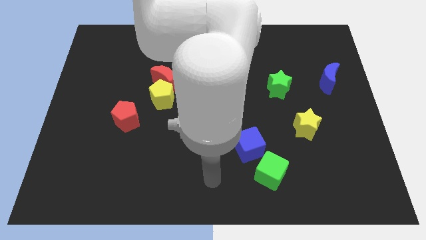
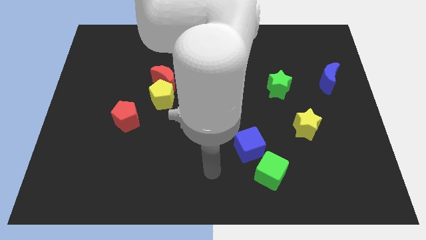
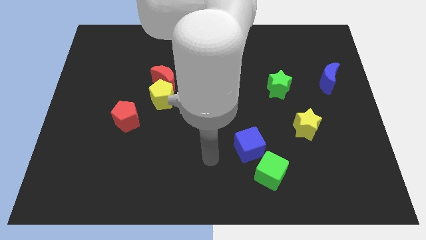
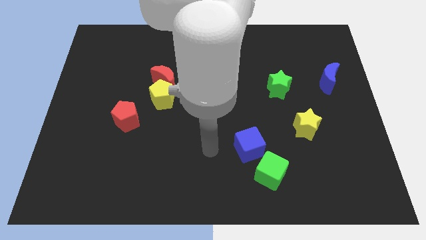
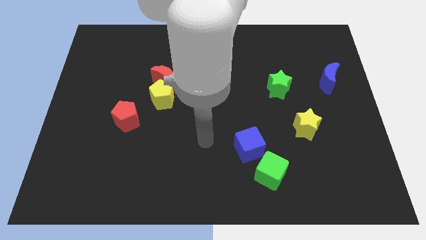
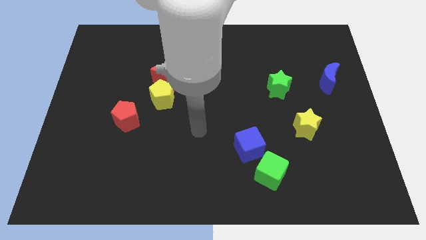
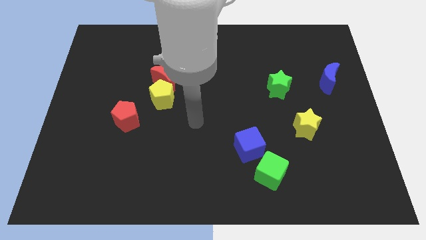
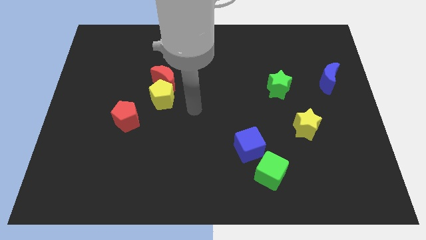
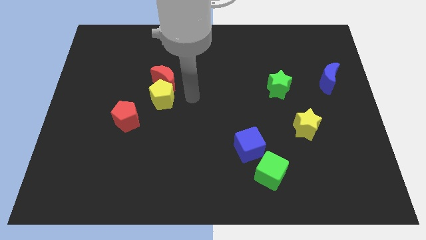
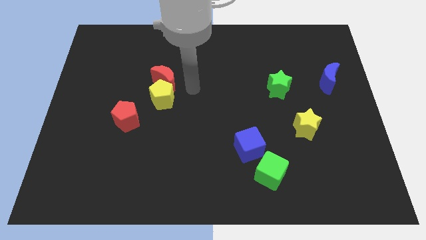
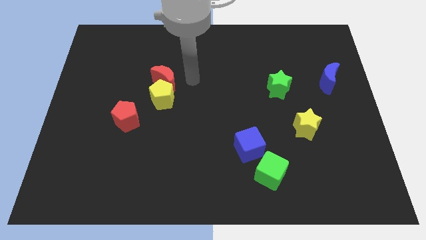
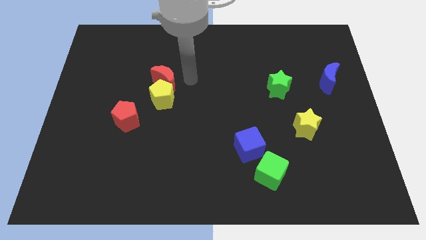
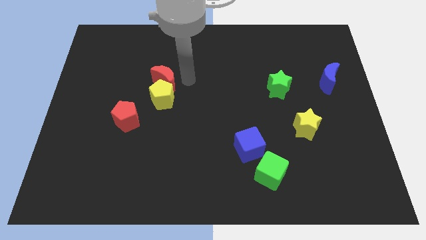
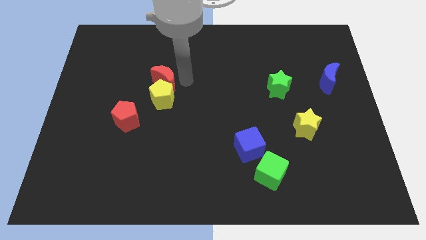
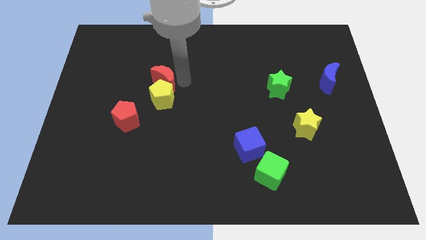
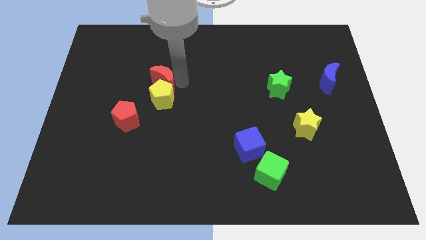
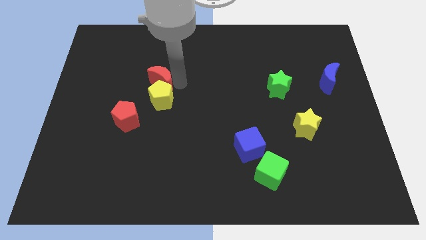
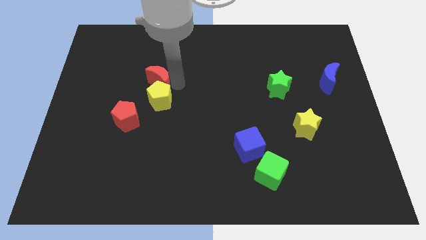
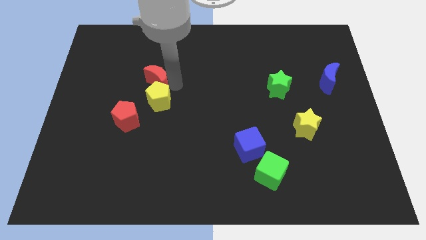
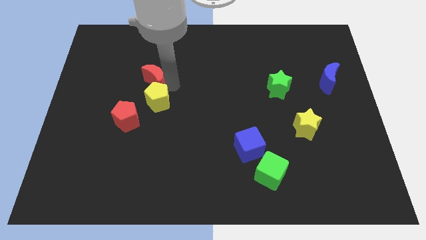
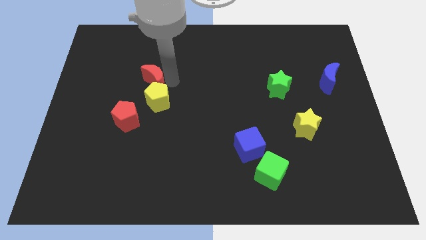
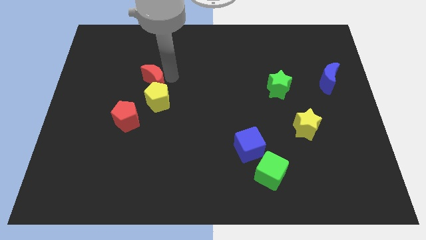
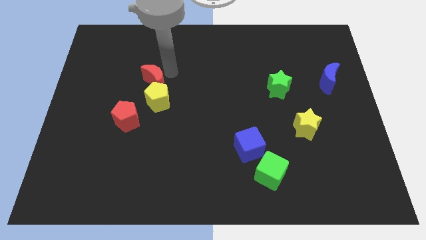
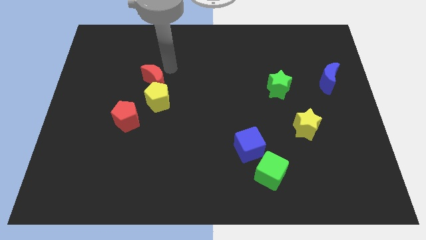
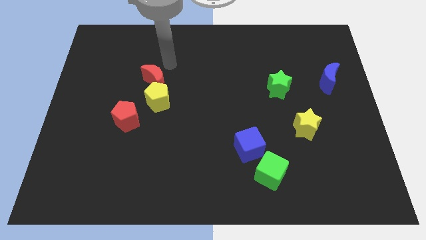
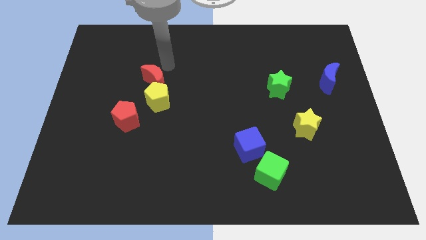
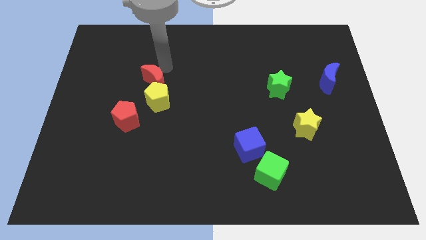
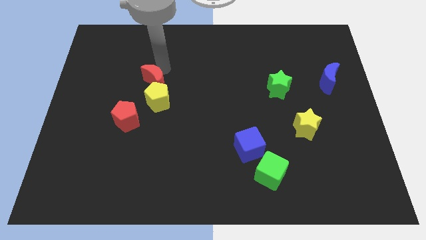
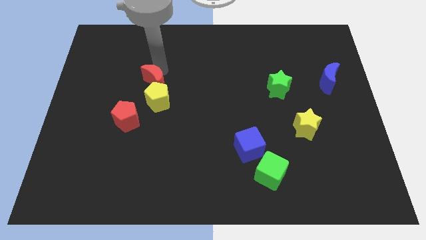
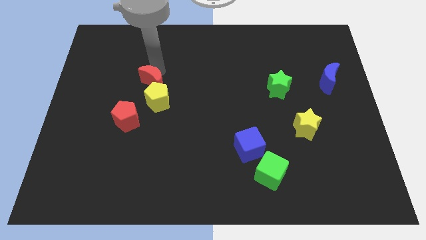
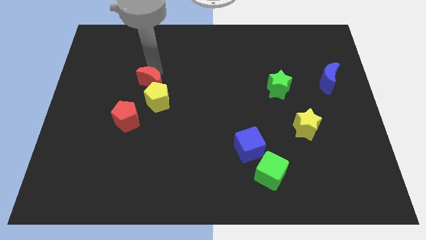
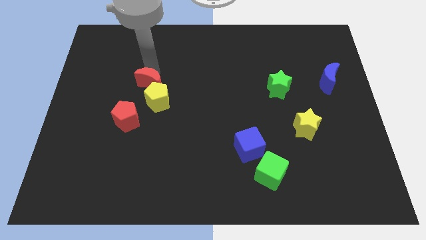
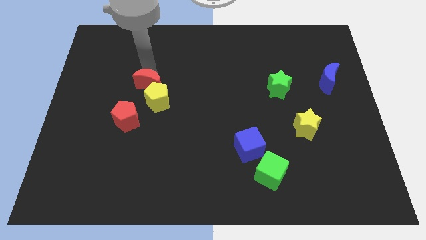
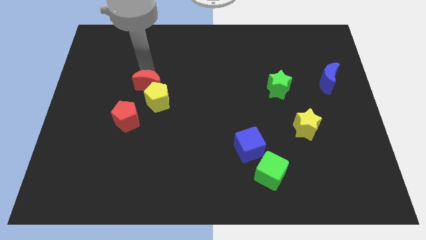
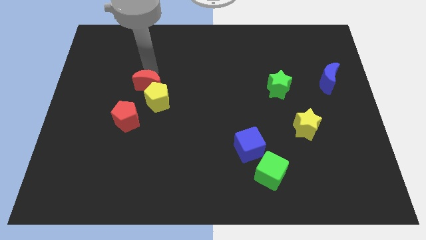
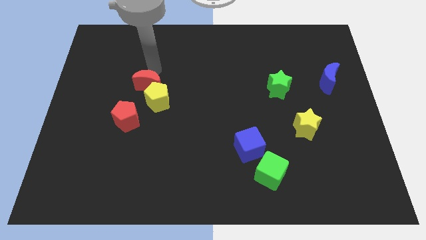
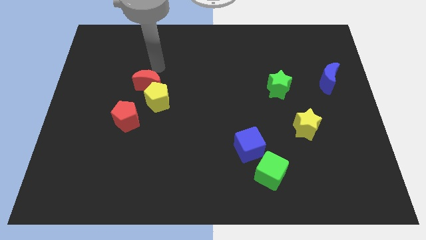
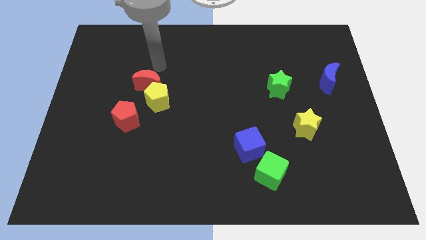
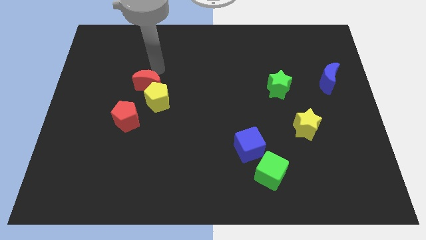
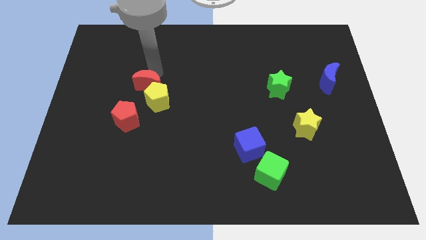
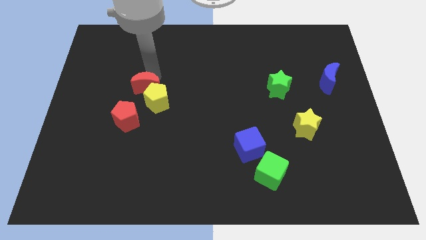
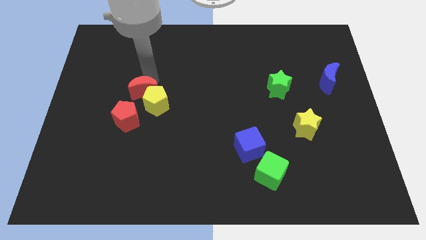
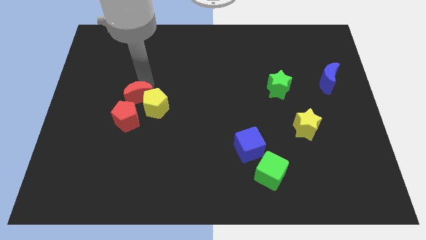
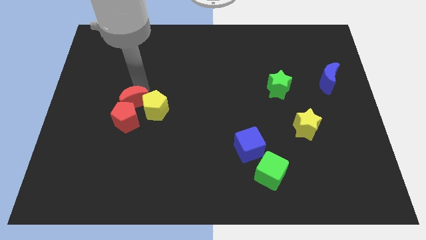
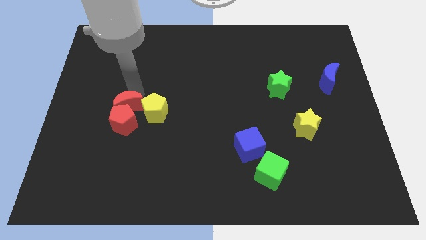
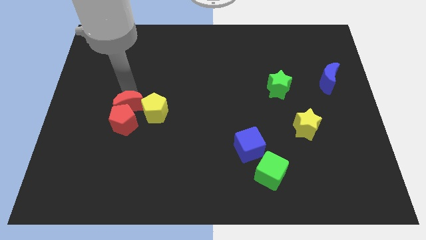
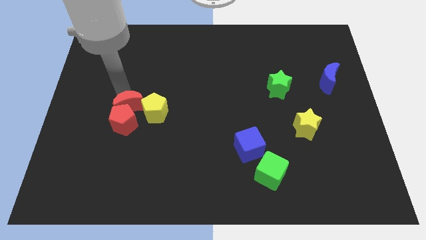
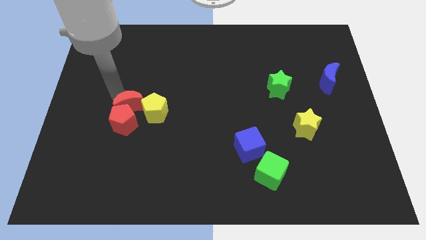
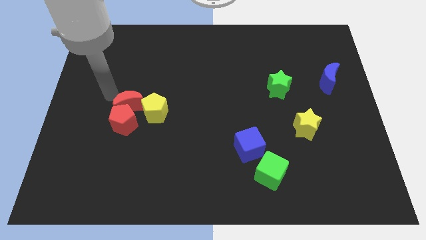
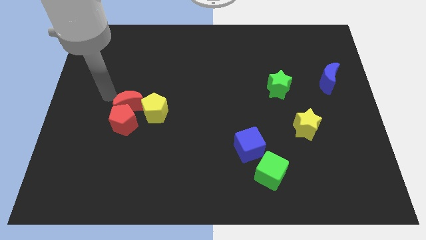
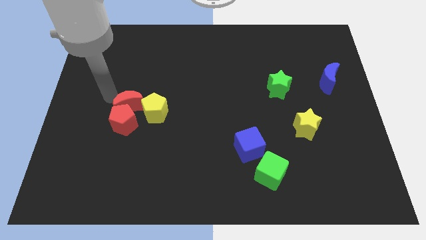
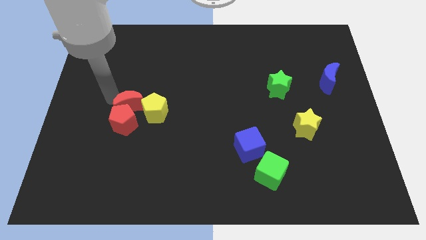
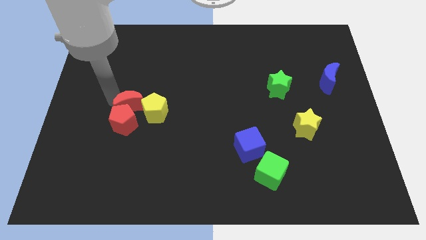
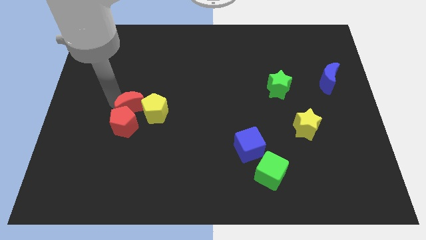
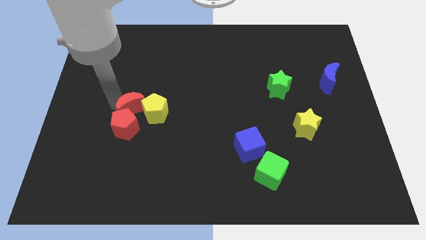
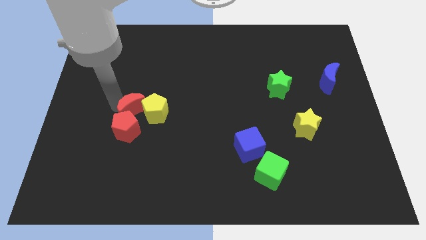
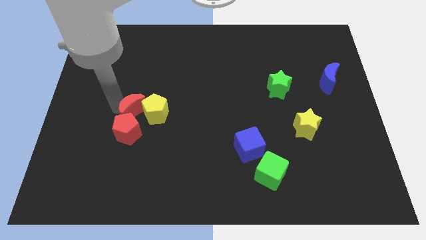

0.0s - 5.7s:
push the red moon down a bit

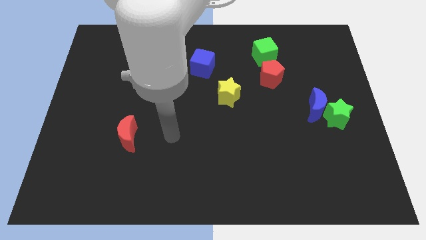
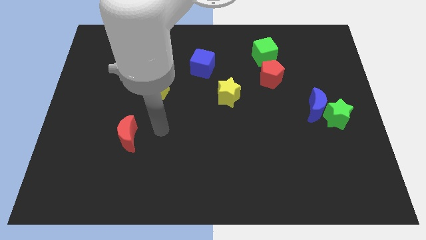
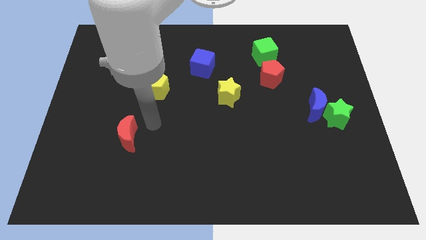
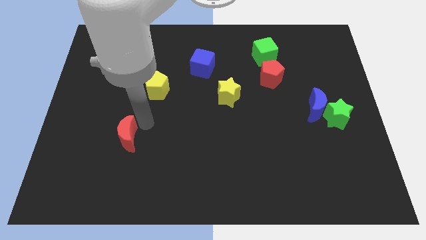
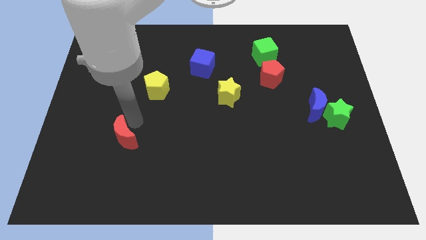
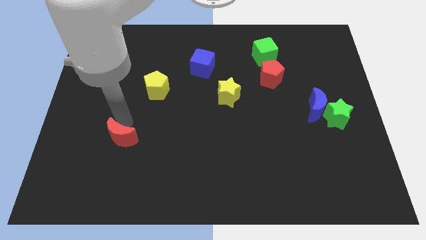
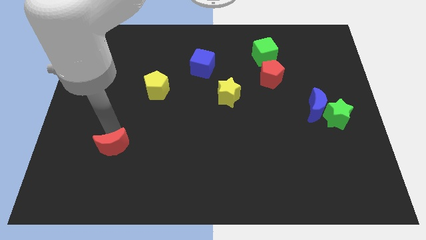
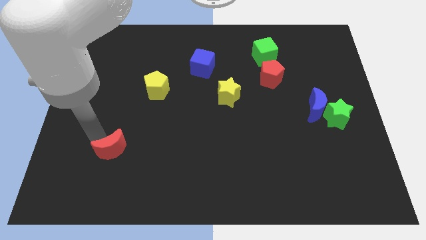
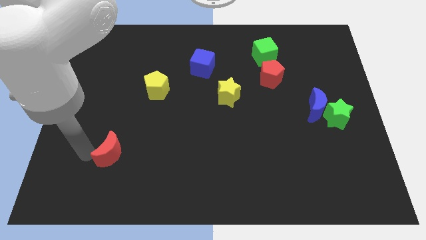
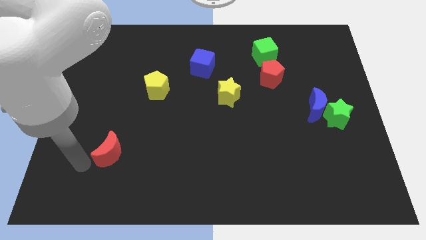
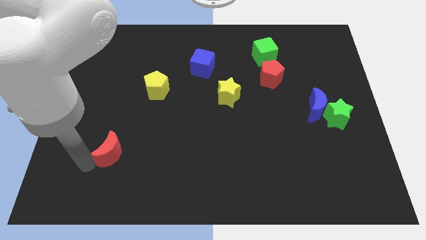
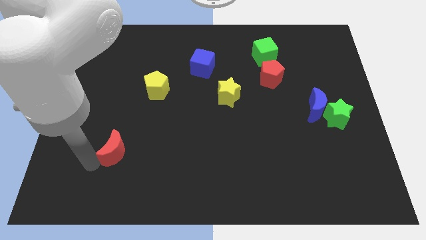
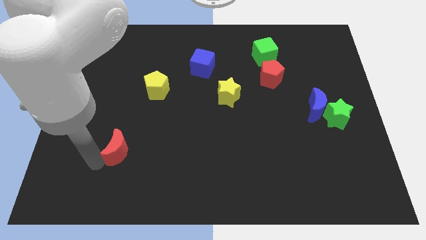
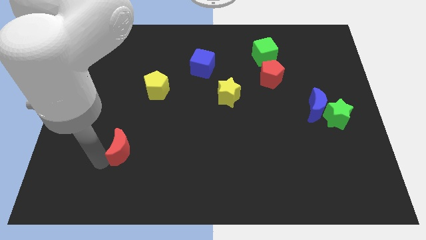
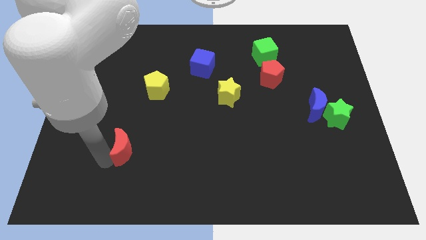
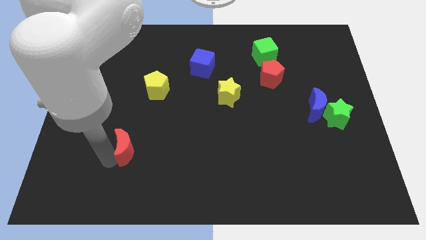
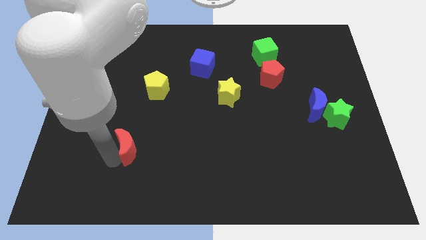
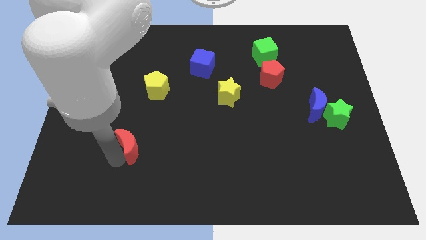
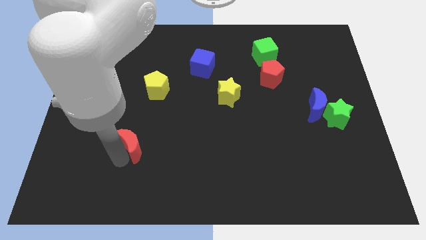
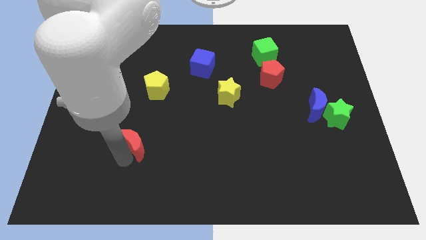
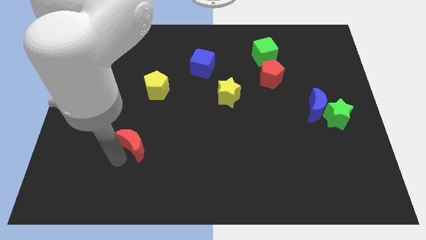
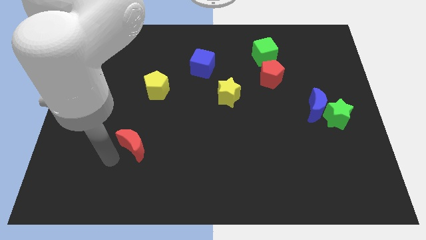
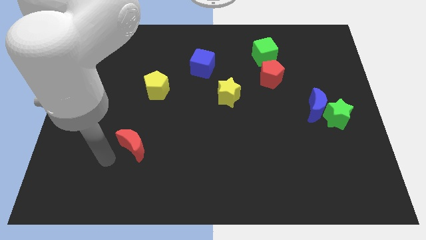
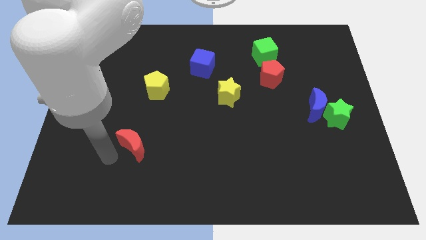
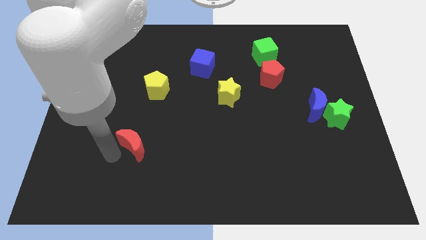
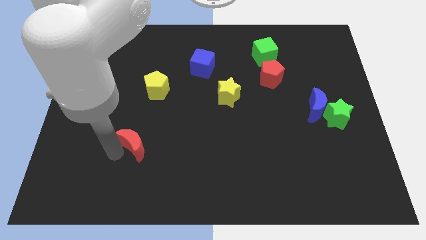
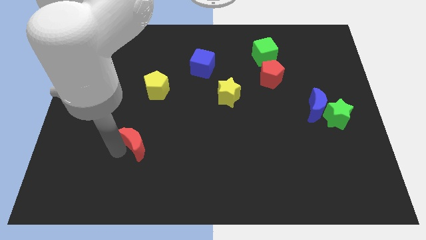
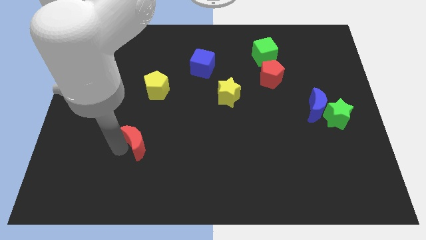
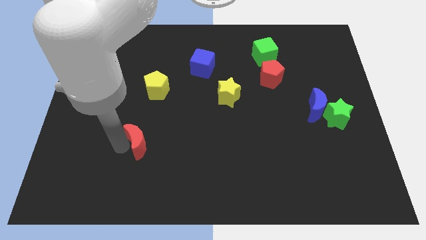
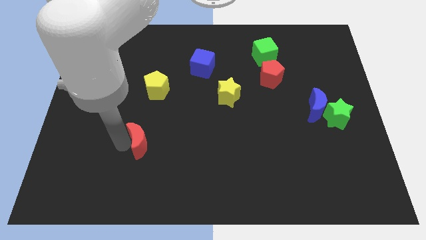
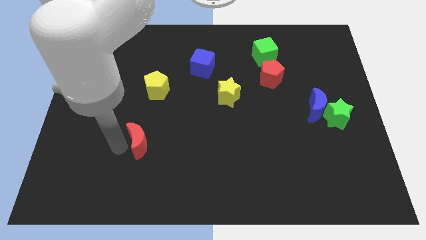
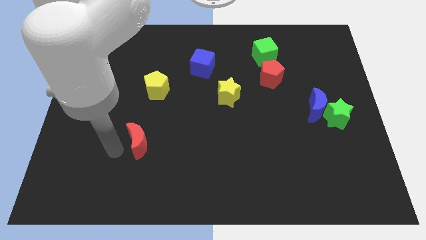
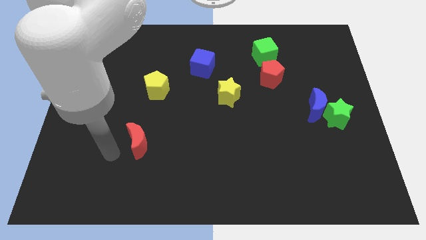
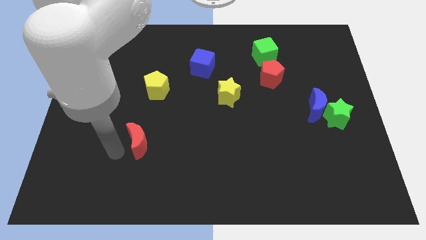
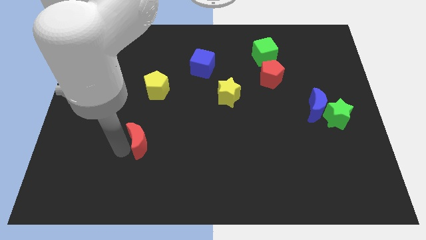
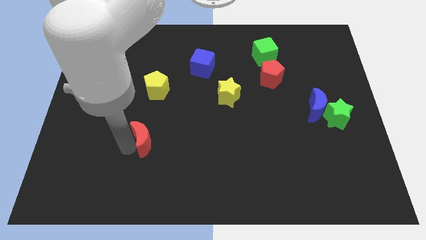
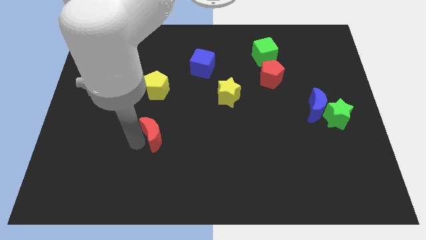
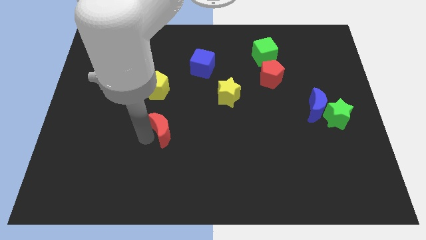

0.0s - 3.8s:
slide the red moon to the right somewhat
